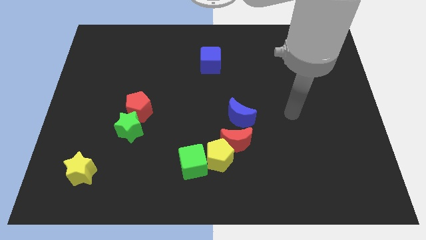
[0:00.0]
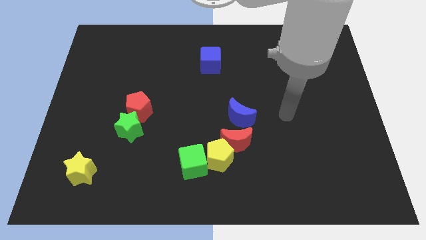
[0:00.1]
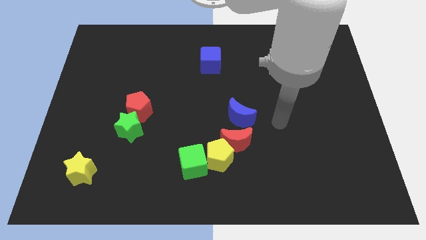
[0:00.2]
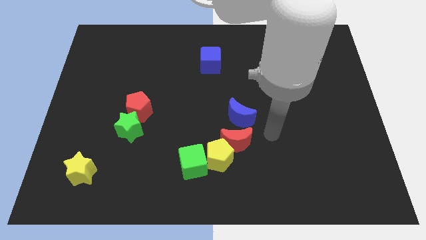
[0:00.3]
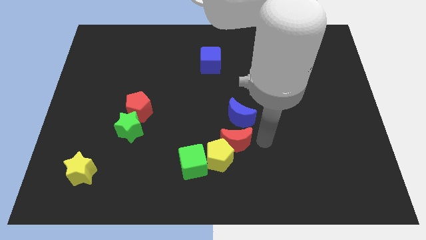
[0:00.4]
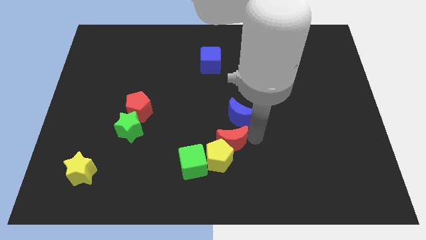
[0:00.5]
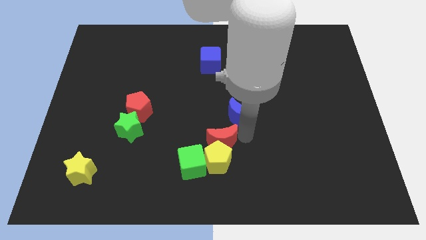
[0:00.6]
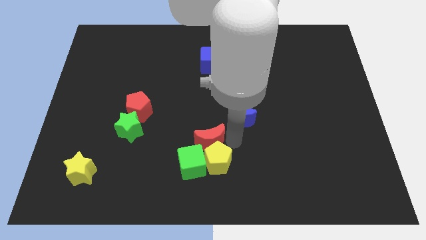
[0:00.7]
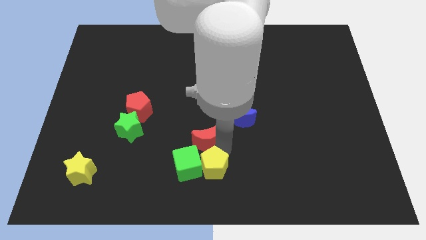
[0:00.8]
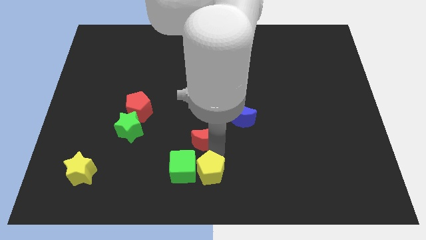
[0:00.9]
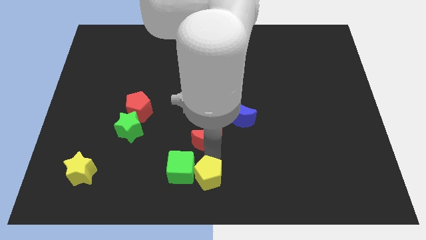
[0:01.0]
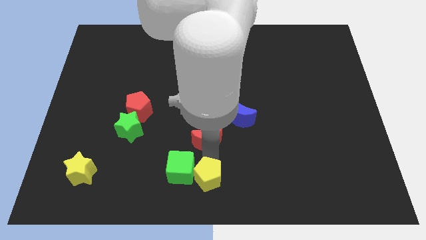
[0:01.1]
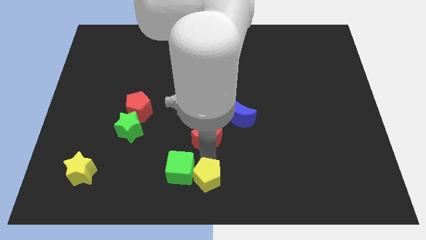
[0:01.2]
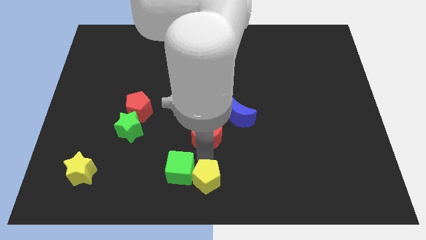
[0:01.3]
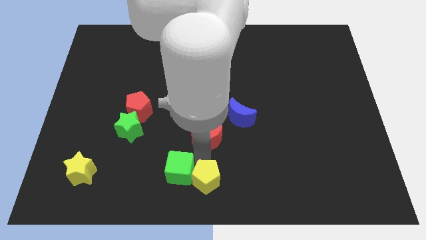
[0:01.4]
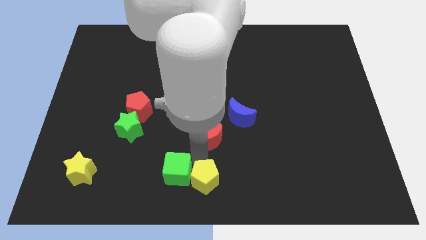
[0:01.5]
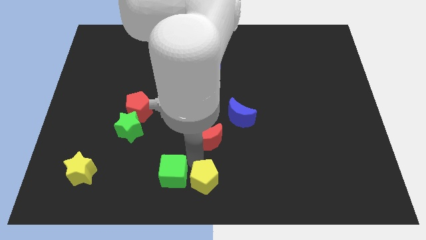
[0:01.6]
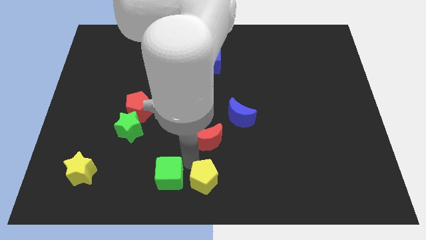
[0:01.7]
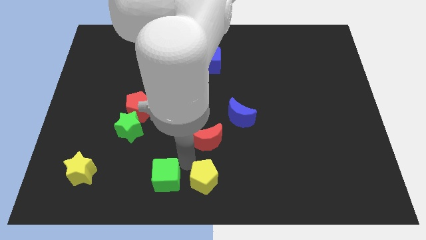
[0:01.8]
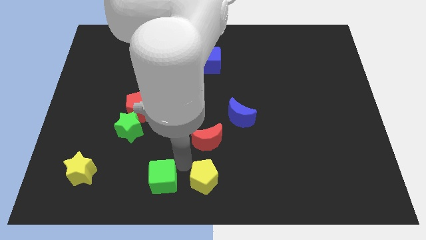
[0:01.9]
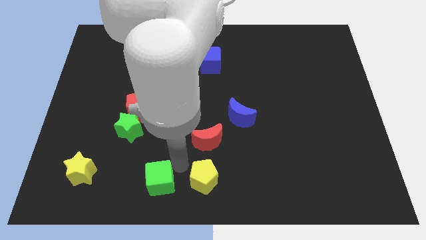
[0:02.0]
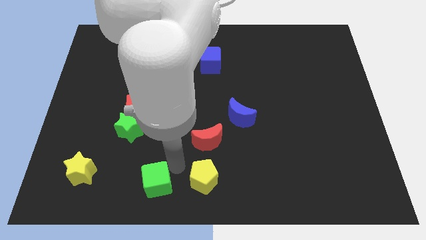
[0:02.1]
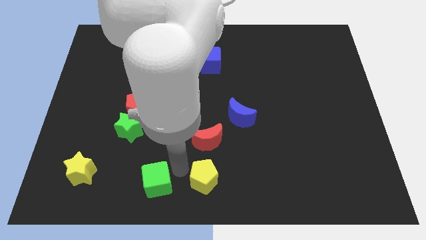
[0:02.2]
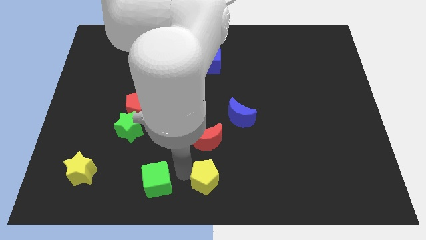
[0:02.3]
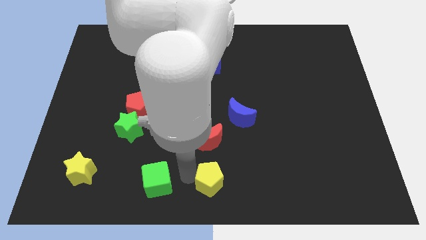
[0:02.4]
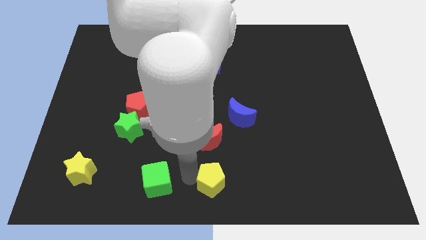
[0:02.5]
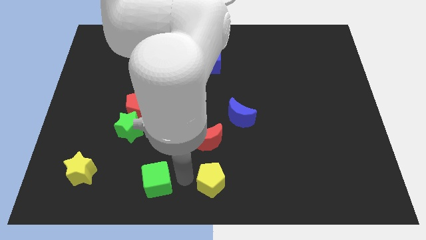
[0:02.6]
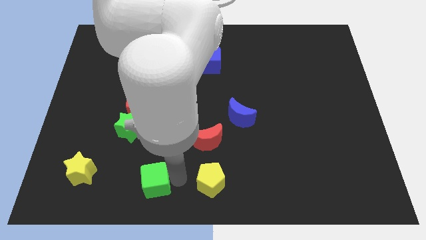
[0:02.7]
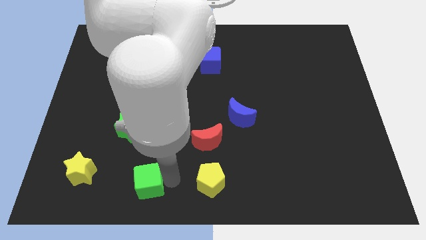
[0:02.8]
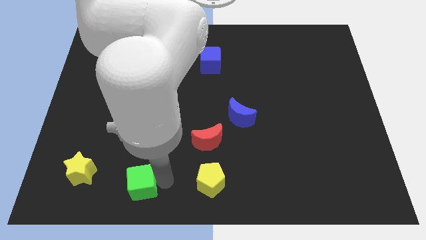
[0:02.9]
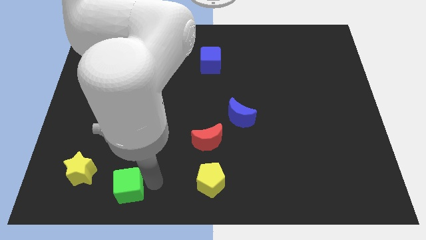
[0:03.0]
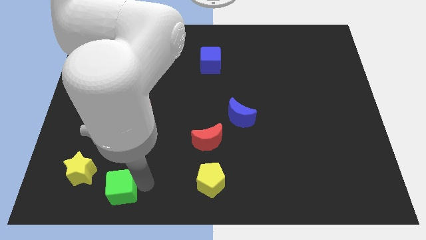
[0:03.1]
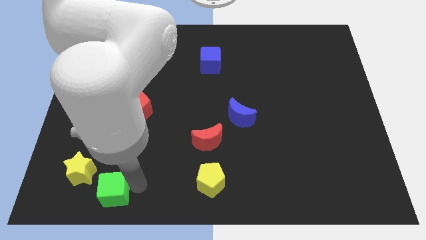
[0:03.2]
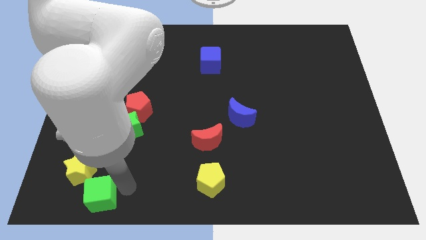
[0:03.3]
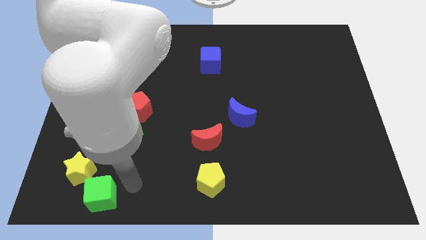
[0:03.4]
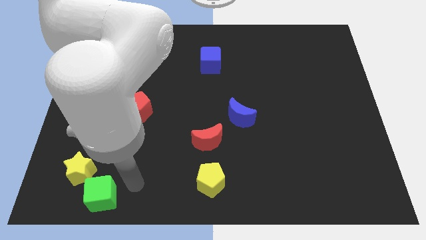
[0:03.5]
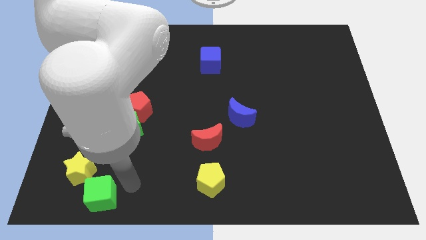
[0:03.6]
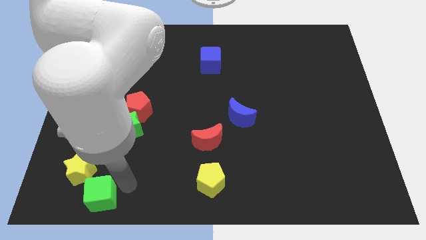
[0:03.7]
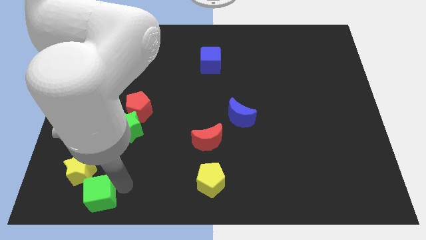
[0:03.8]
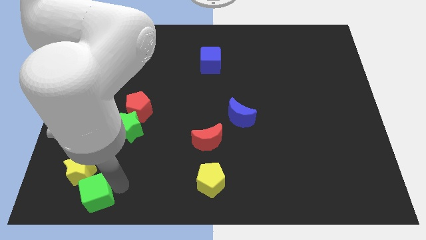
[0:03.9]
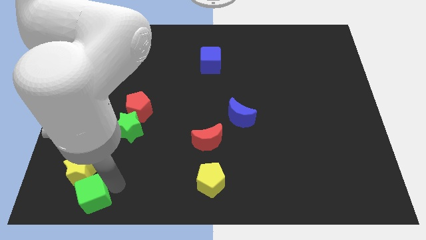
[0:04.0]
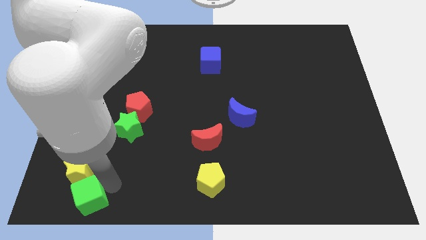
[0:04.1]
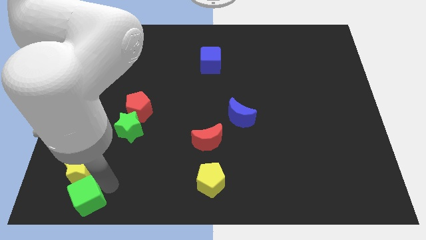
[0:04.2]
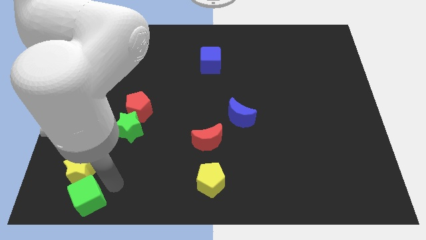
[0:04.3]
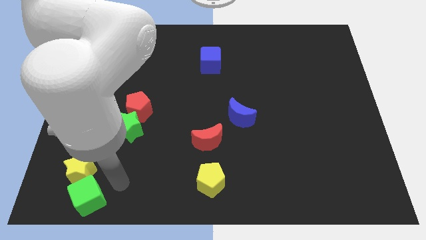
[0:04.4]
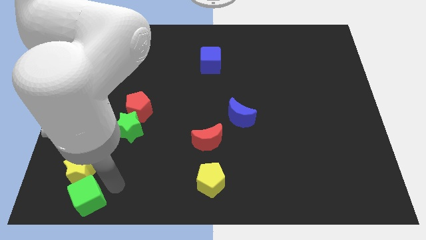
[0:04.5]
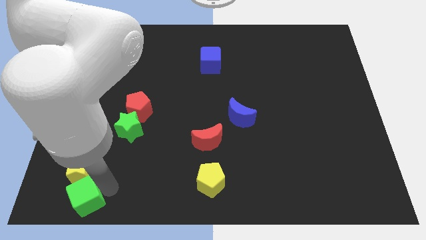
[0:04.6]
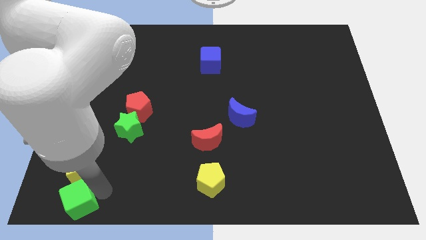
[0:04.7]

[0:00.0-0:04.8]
push the green cube to the bottom left of the board

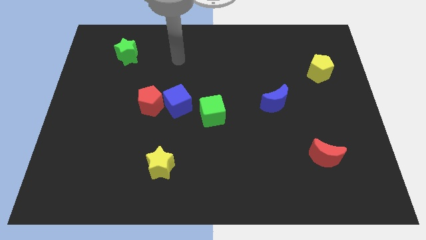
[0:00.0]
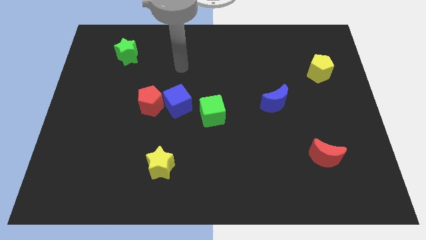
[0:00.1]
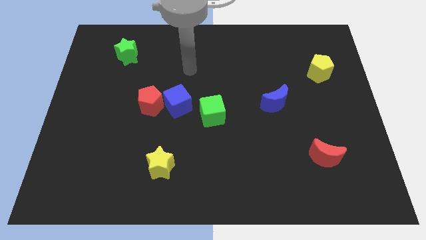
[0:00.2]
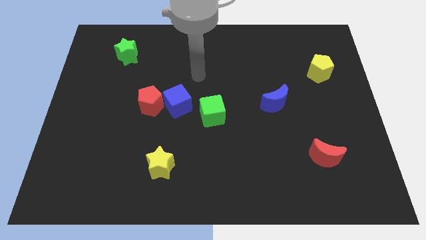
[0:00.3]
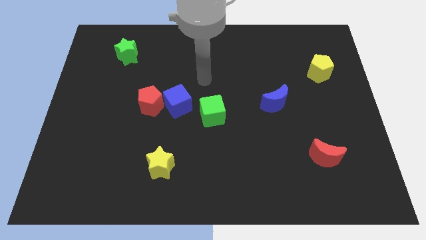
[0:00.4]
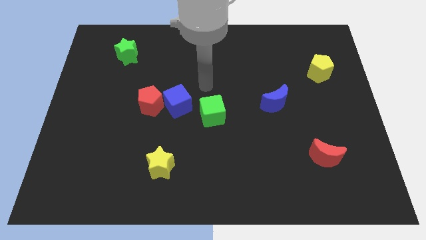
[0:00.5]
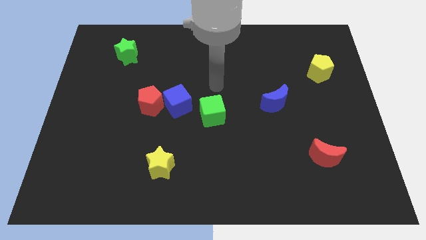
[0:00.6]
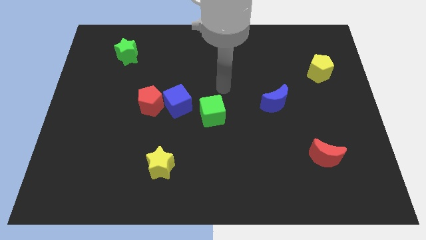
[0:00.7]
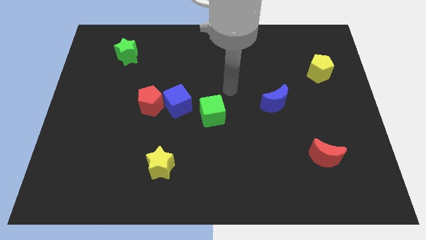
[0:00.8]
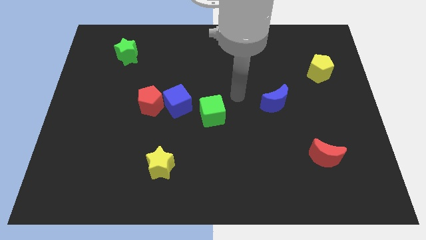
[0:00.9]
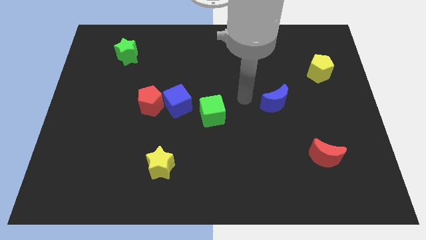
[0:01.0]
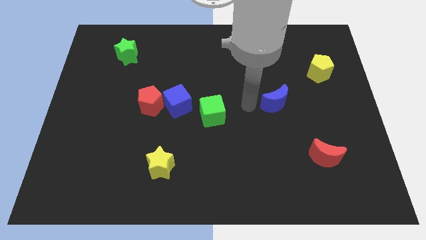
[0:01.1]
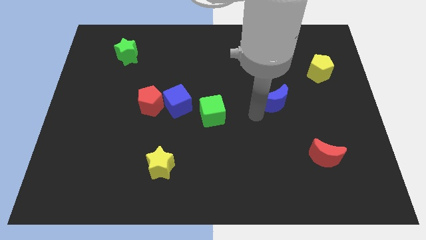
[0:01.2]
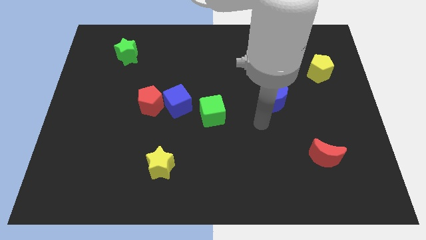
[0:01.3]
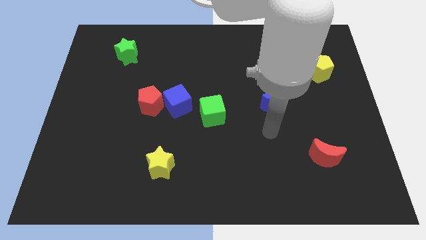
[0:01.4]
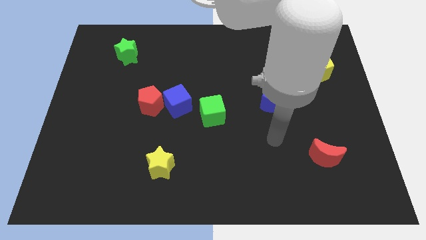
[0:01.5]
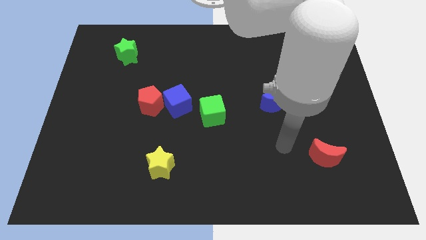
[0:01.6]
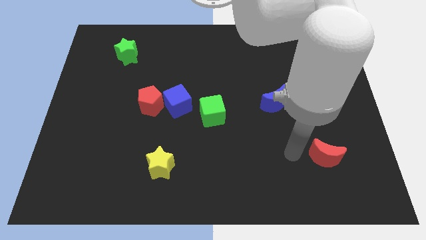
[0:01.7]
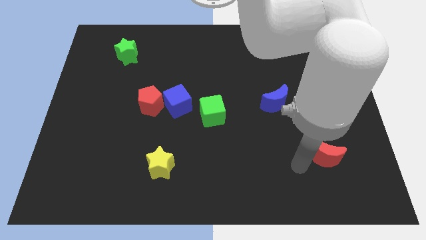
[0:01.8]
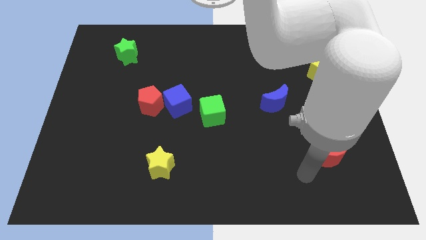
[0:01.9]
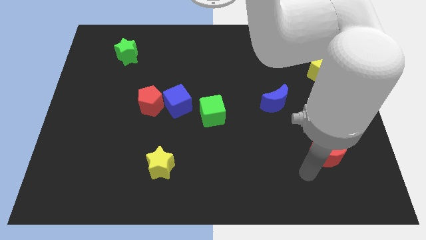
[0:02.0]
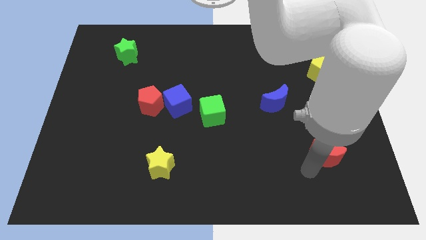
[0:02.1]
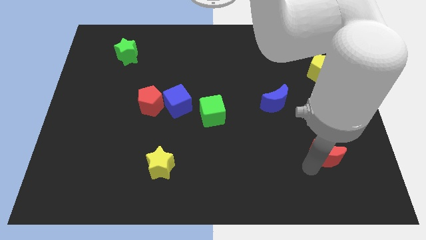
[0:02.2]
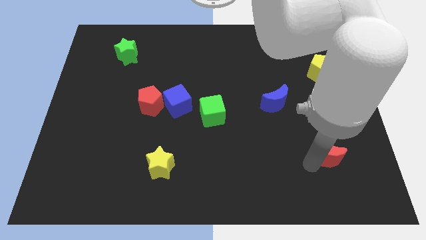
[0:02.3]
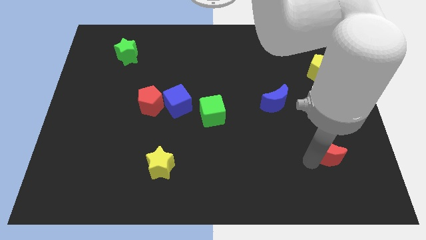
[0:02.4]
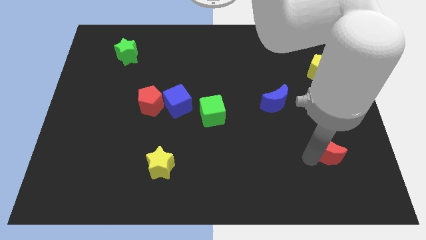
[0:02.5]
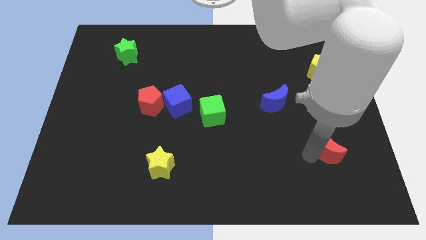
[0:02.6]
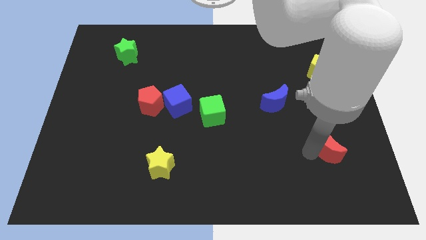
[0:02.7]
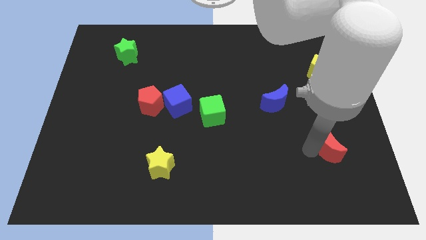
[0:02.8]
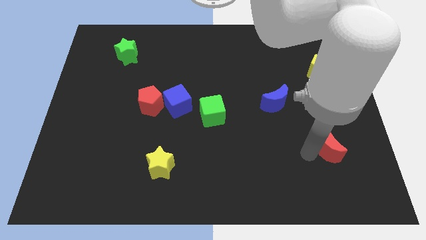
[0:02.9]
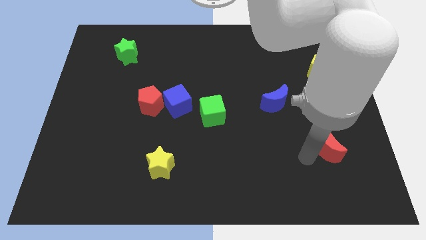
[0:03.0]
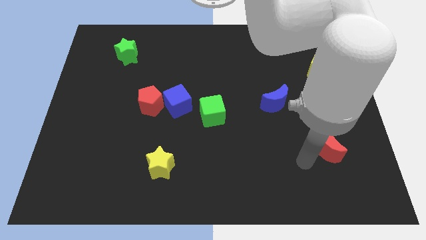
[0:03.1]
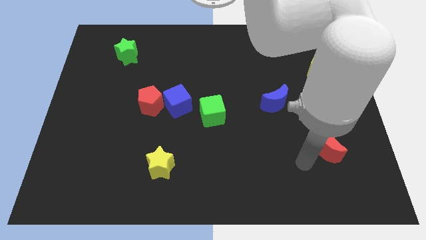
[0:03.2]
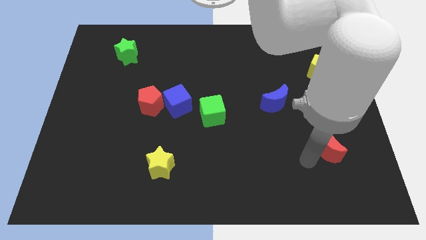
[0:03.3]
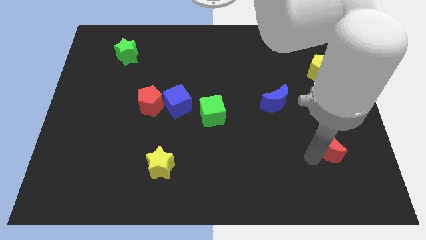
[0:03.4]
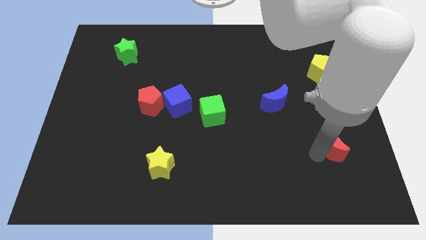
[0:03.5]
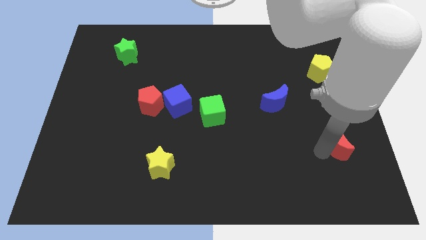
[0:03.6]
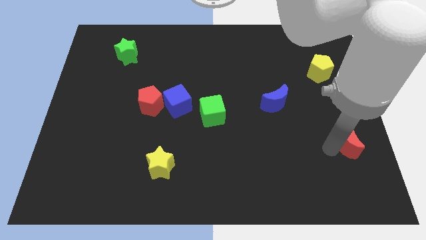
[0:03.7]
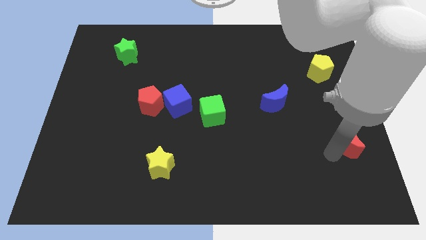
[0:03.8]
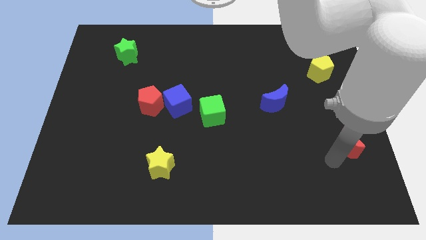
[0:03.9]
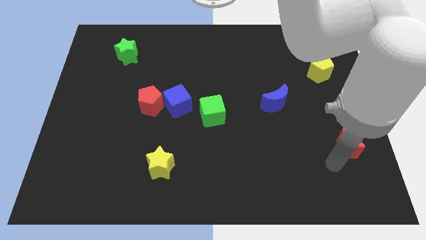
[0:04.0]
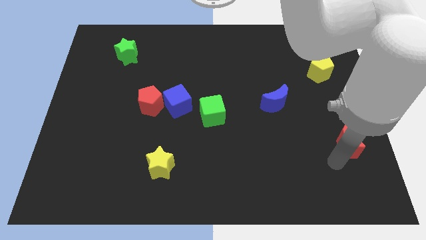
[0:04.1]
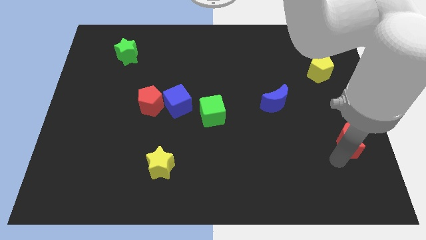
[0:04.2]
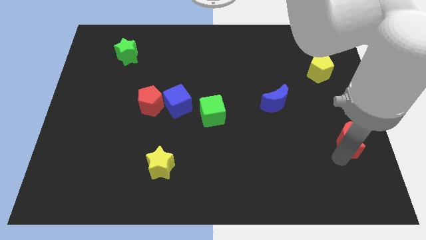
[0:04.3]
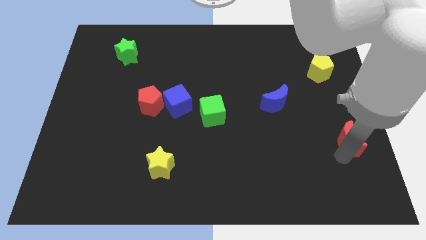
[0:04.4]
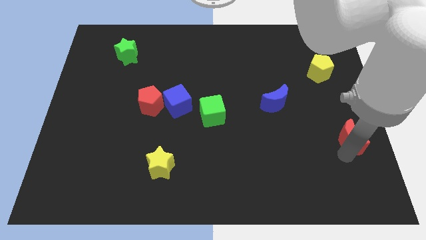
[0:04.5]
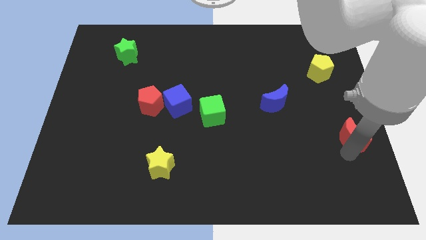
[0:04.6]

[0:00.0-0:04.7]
move the red moon to the right side of the board
